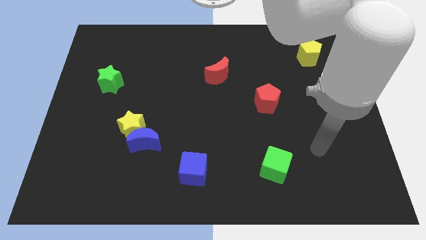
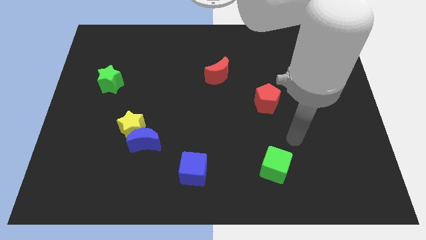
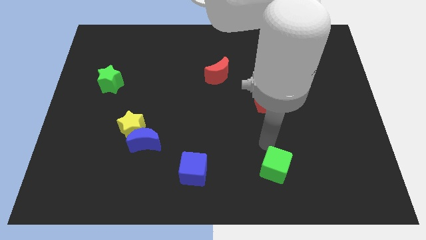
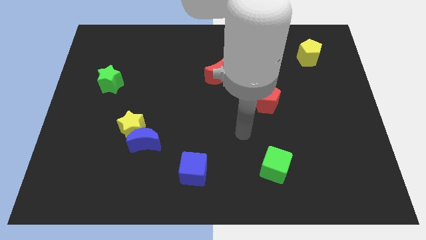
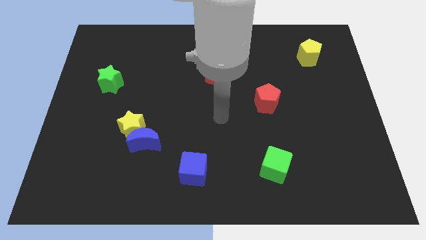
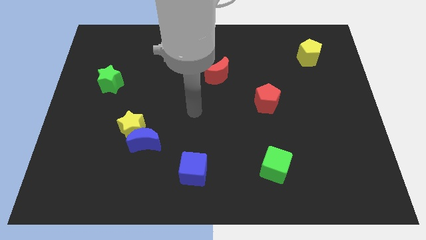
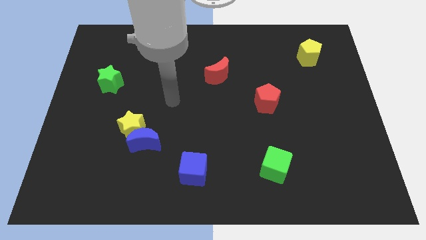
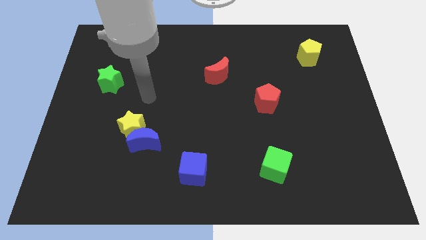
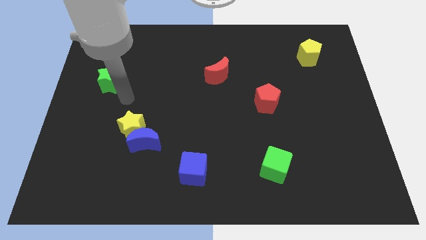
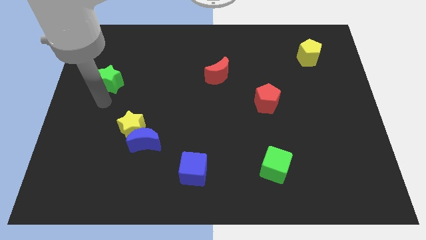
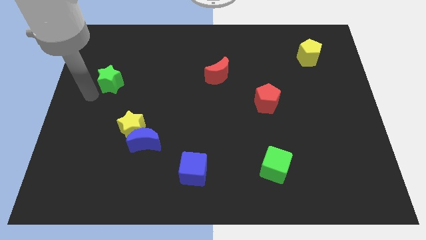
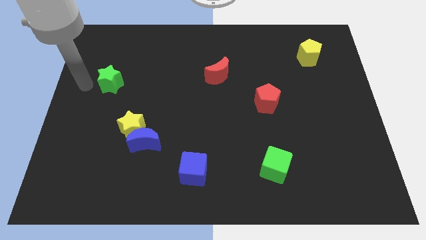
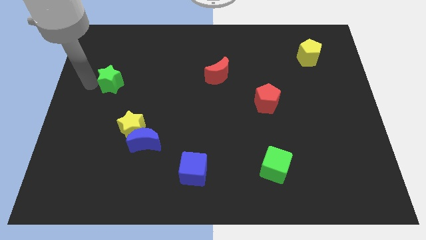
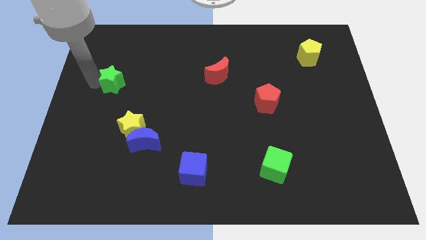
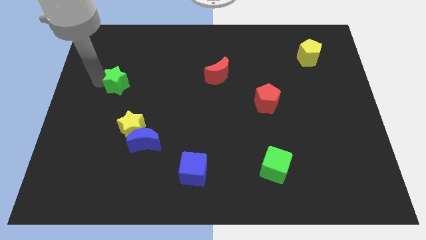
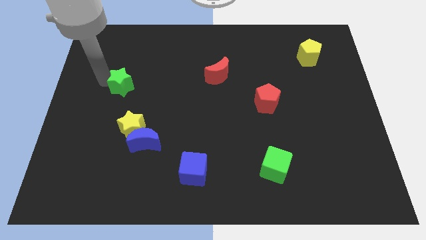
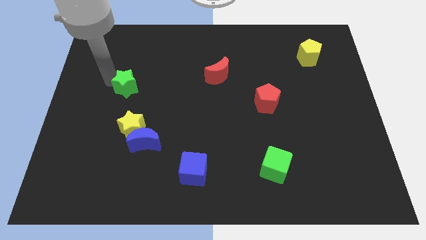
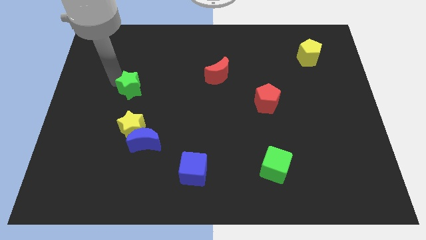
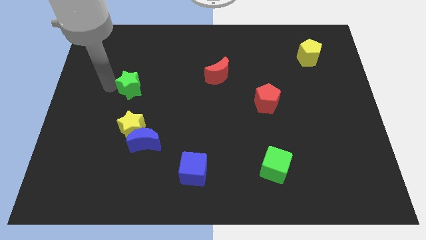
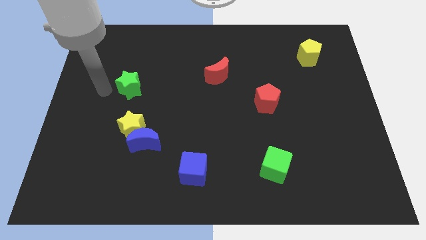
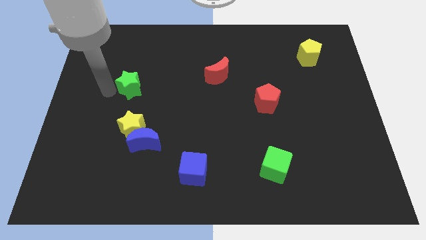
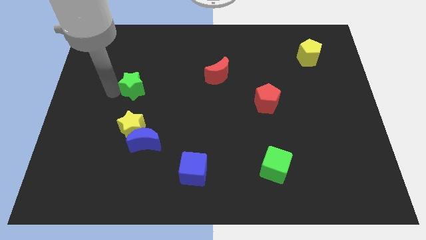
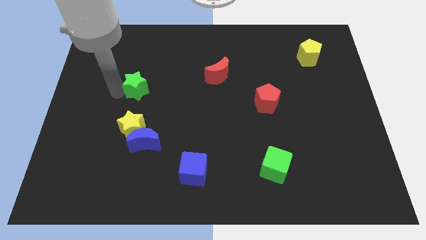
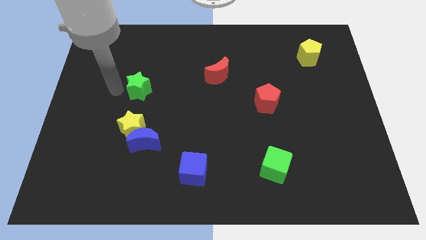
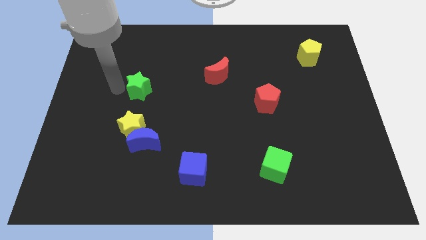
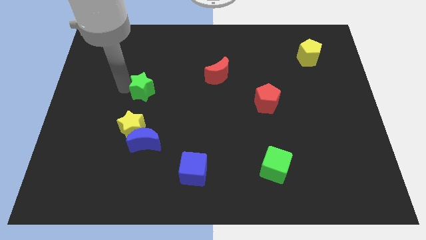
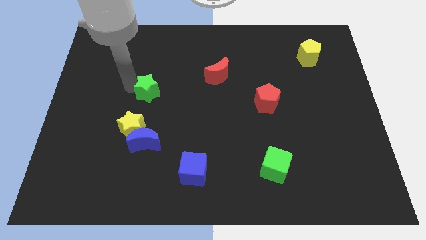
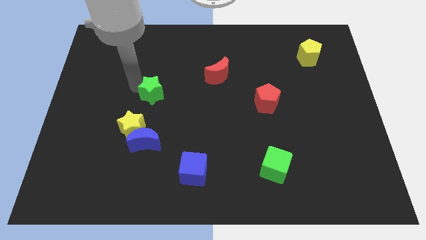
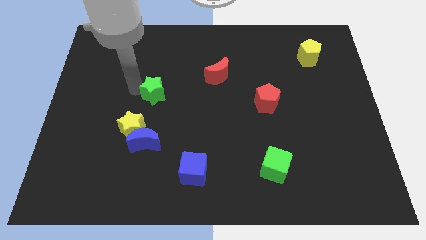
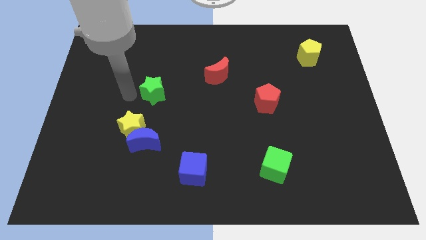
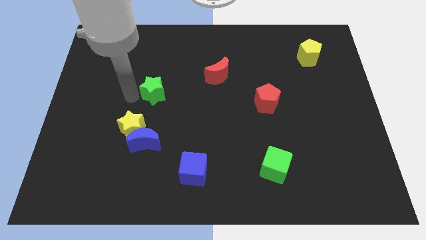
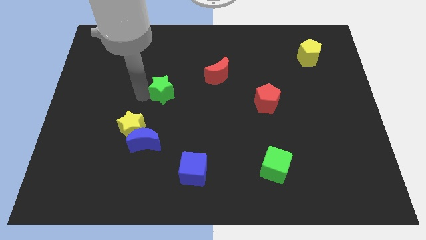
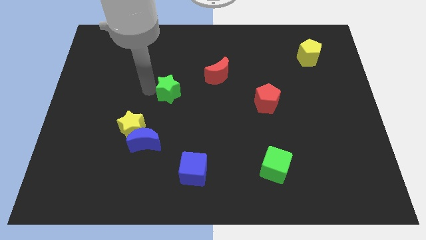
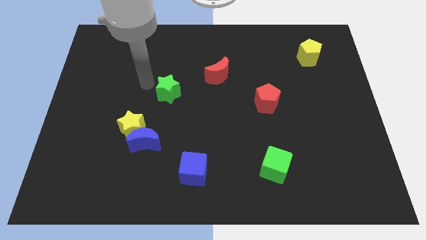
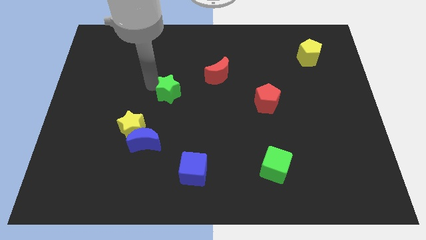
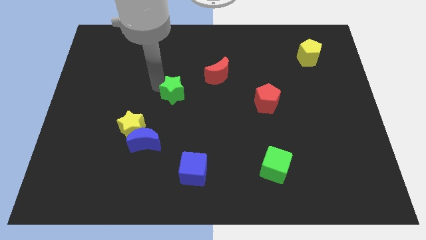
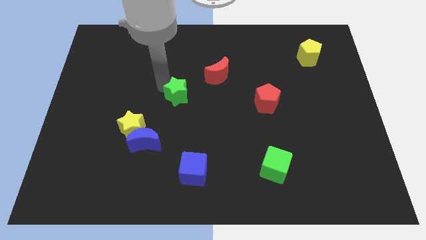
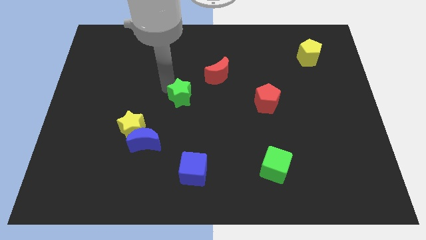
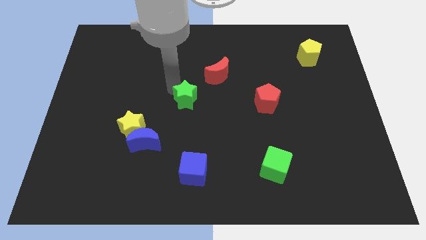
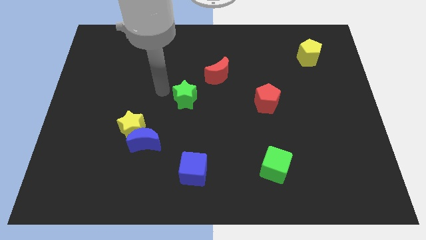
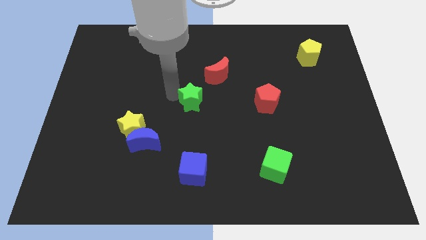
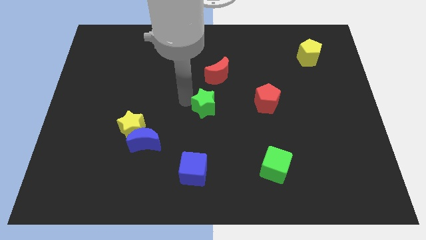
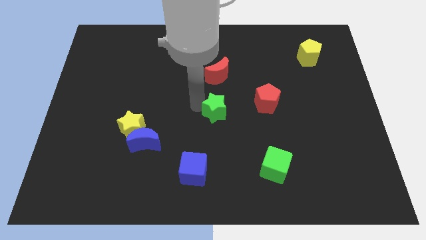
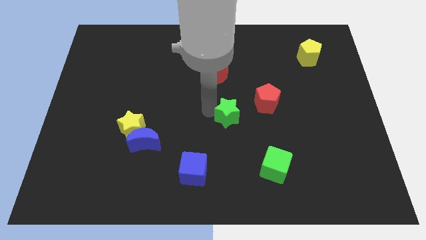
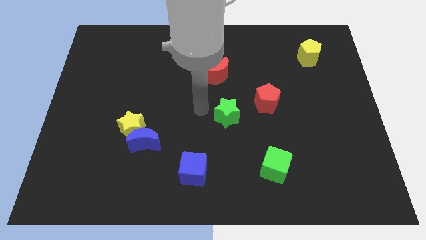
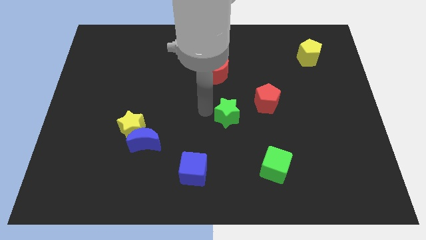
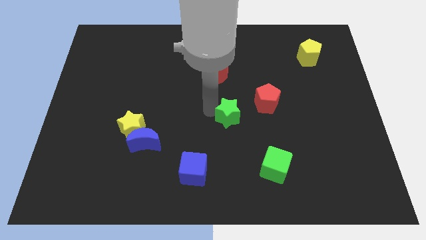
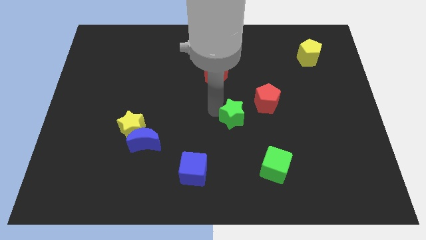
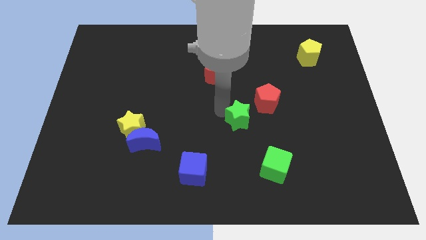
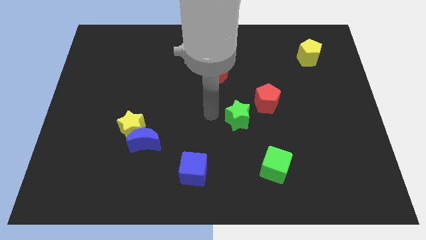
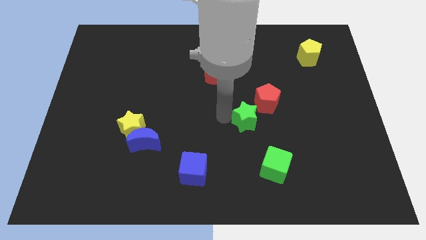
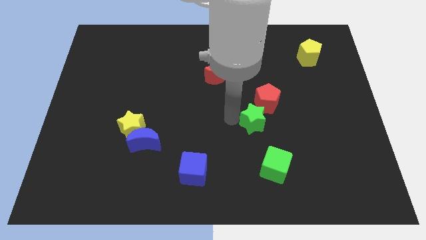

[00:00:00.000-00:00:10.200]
slide the green star above the green cube

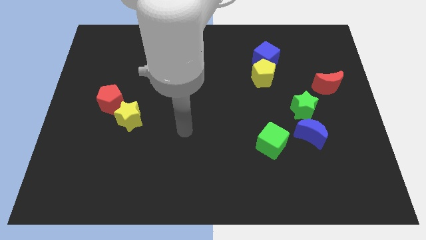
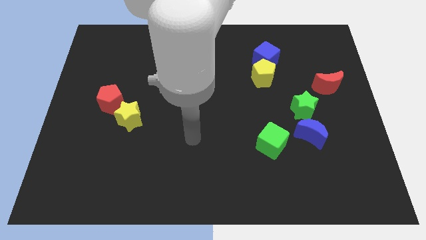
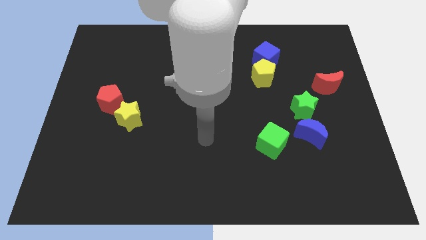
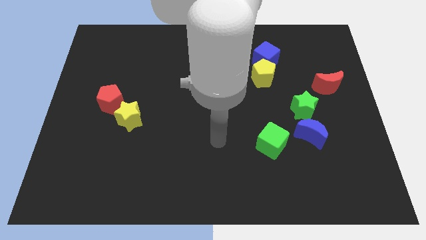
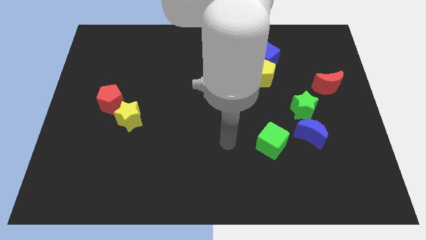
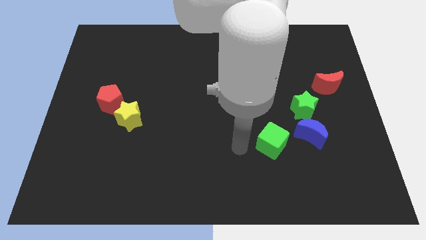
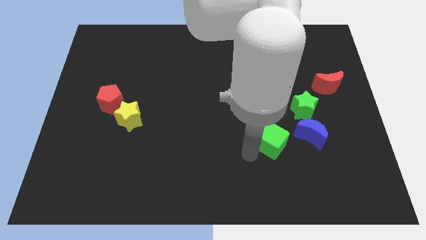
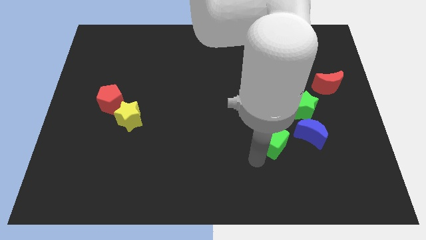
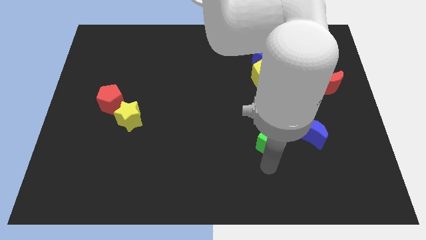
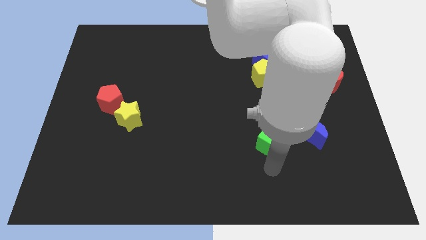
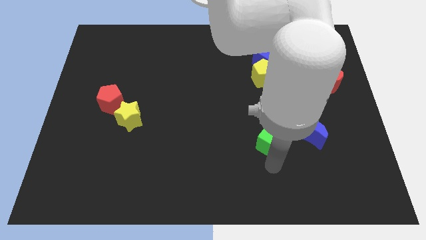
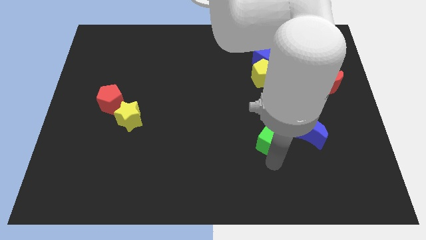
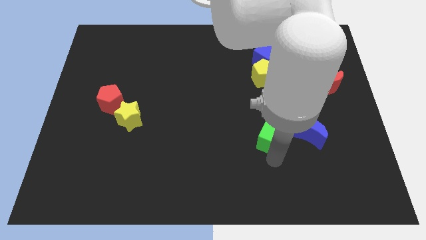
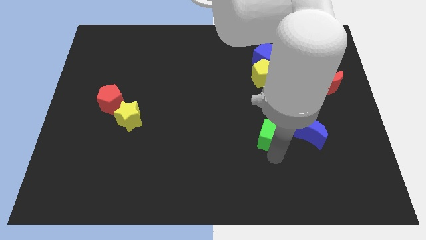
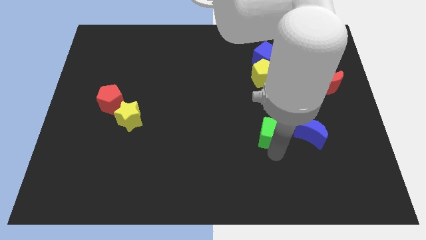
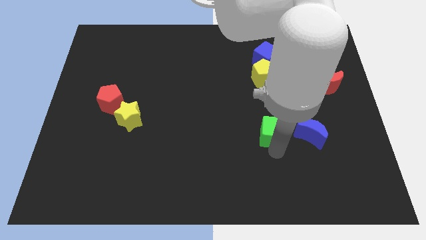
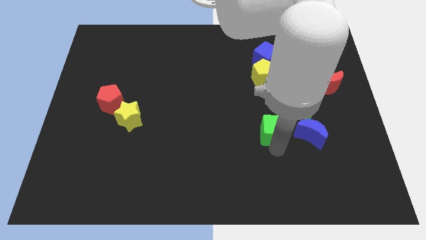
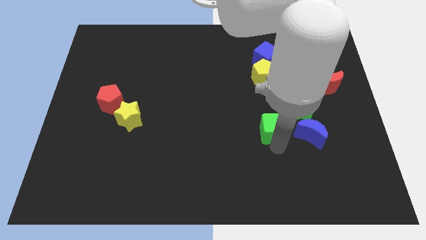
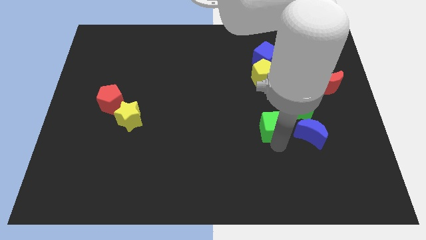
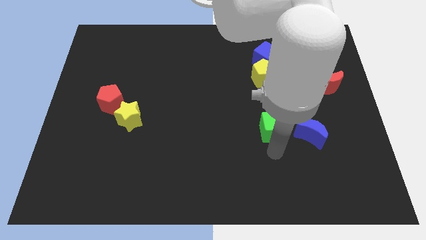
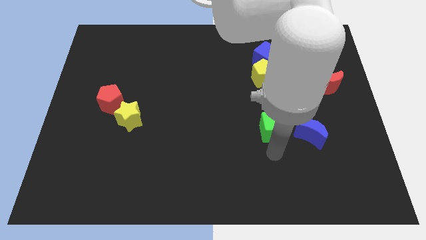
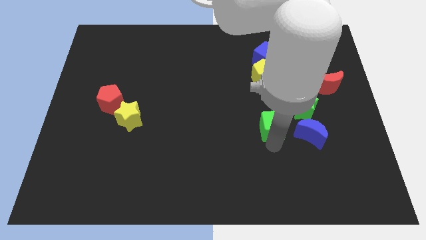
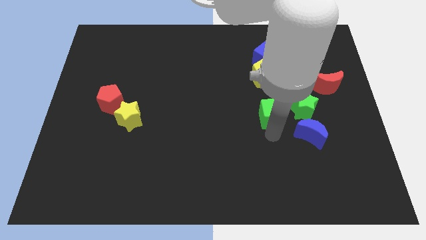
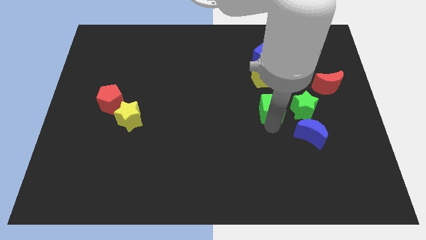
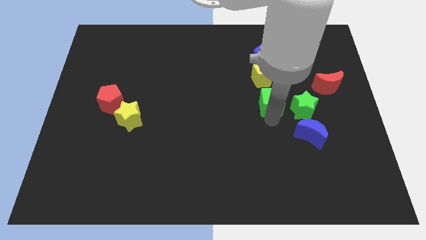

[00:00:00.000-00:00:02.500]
move the green cube to the bottom of the blue cube
